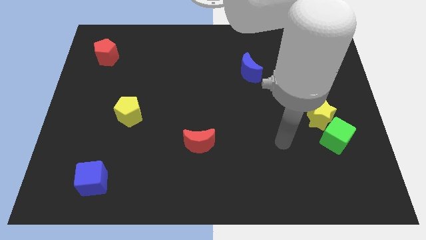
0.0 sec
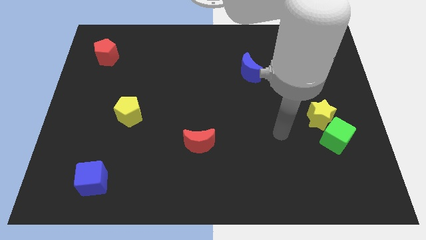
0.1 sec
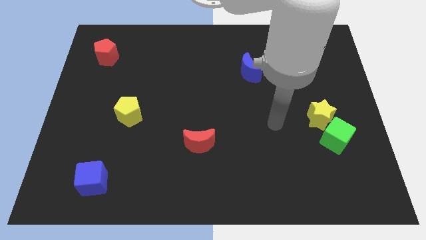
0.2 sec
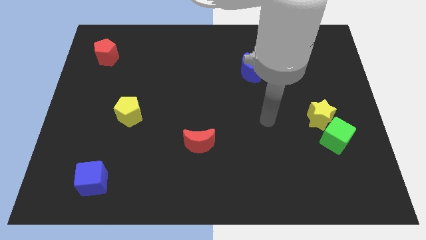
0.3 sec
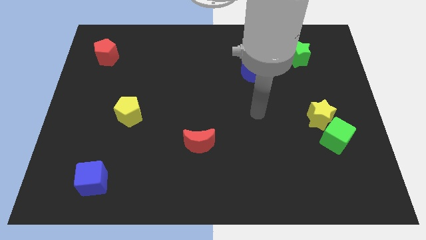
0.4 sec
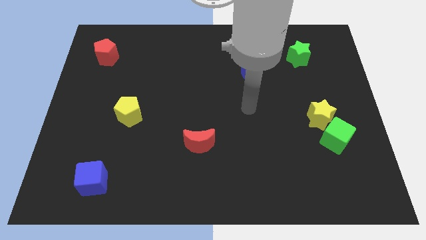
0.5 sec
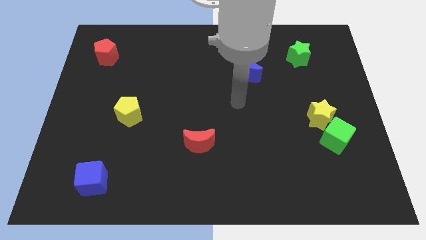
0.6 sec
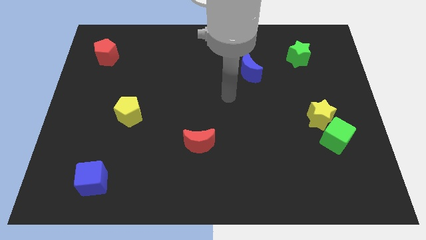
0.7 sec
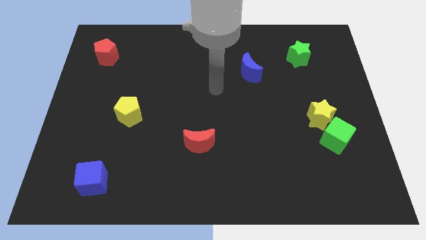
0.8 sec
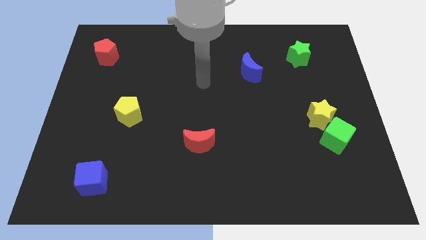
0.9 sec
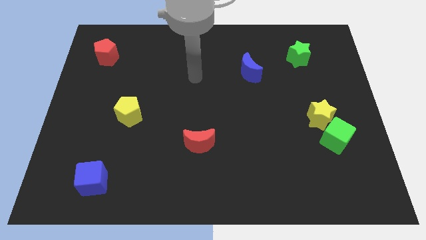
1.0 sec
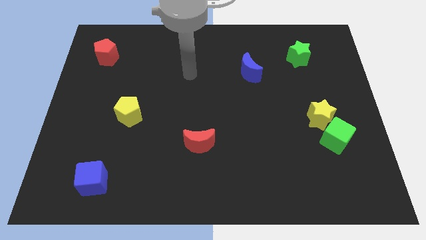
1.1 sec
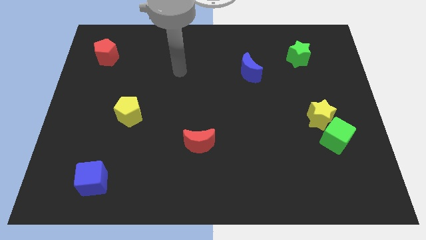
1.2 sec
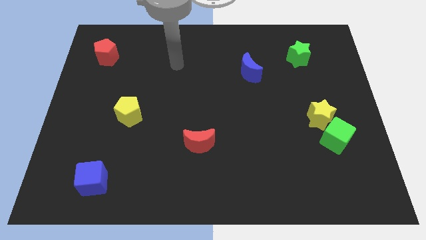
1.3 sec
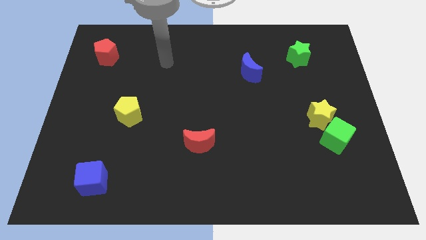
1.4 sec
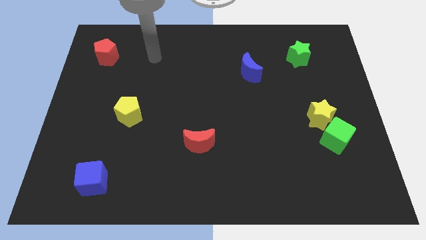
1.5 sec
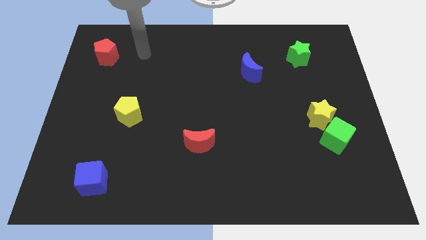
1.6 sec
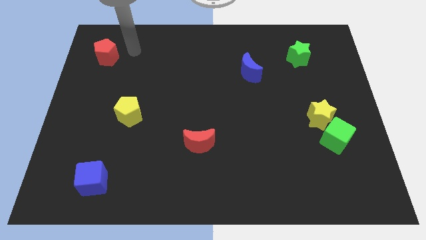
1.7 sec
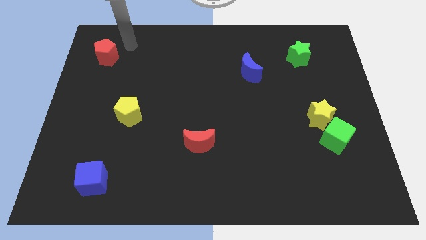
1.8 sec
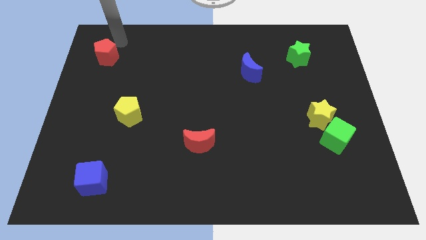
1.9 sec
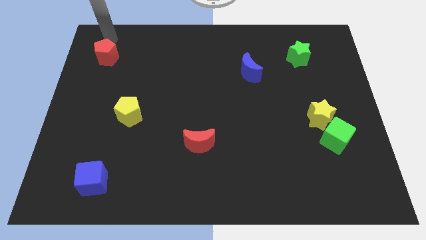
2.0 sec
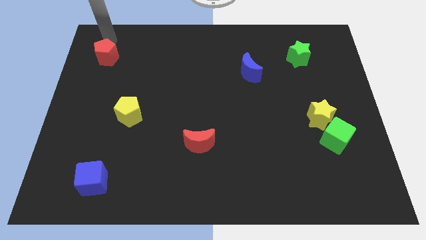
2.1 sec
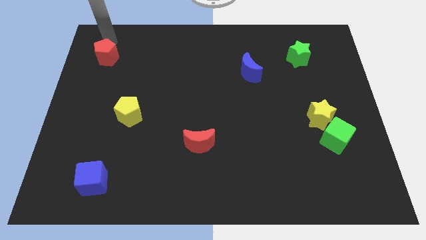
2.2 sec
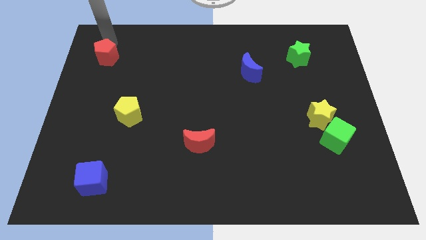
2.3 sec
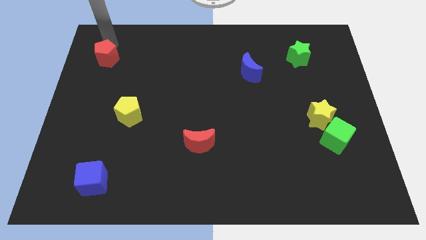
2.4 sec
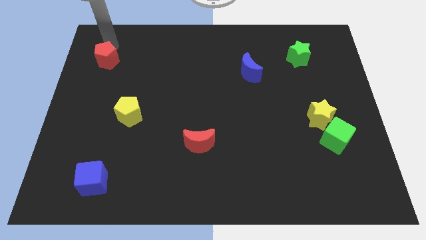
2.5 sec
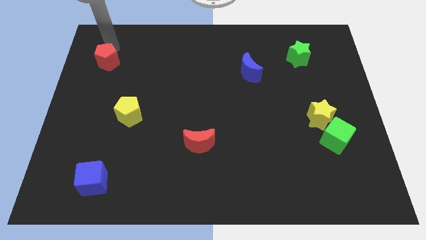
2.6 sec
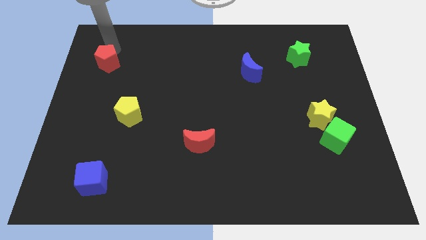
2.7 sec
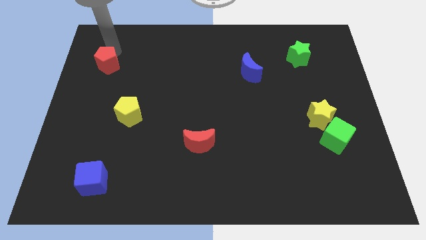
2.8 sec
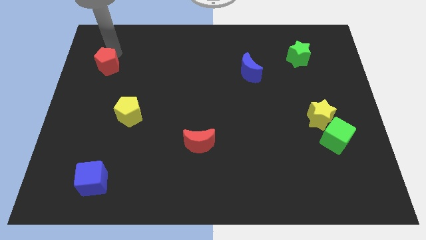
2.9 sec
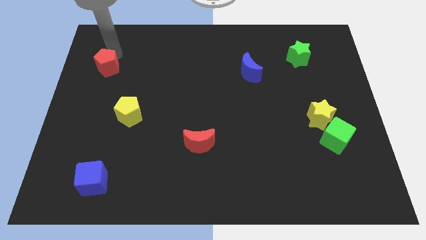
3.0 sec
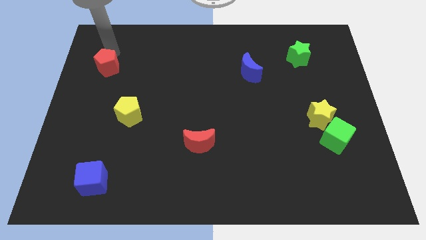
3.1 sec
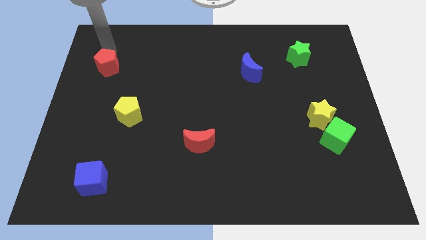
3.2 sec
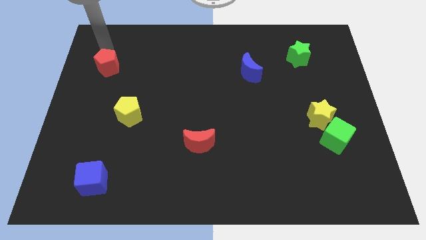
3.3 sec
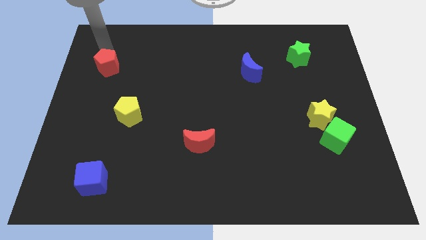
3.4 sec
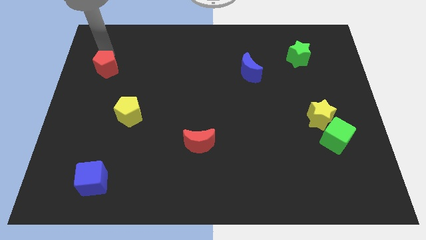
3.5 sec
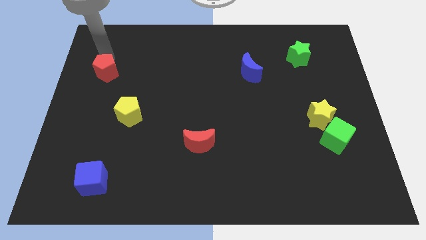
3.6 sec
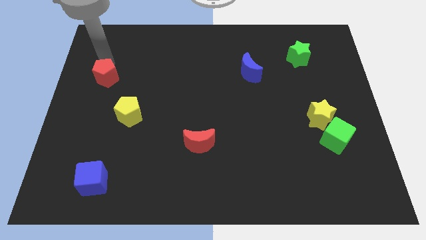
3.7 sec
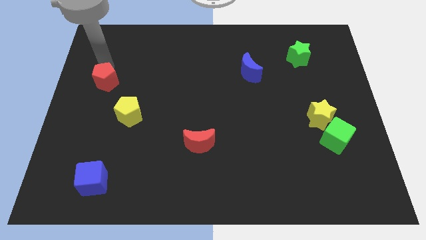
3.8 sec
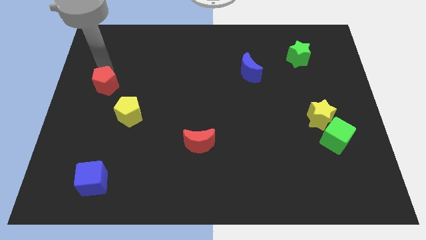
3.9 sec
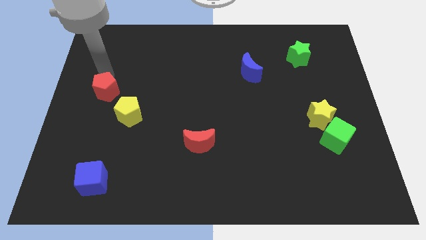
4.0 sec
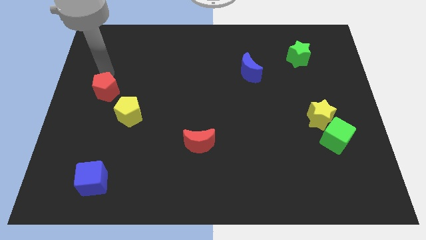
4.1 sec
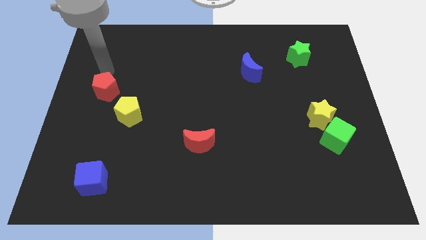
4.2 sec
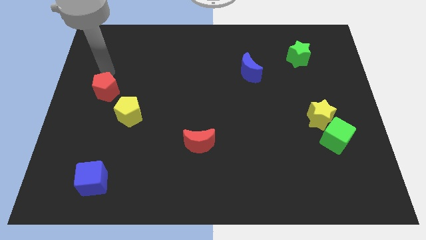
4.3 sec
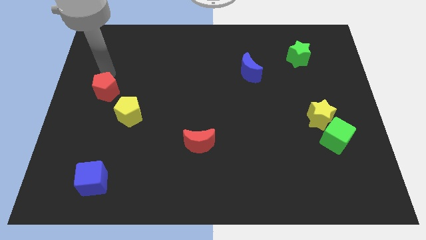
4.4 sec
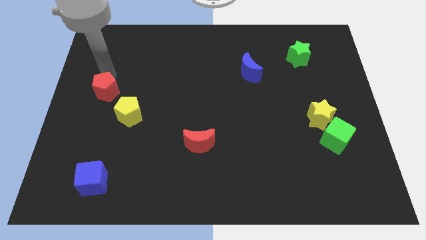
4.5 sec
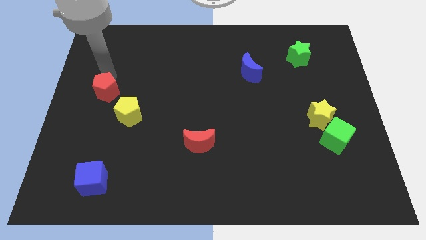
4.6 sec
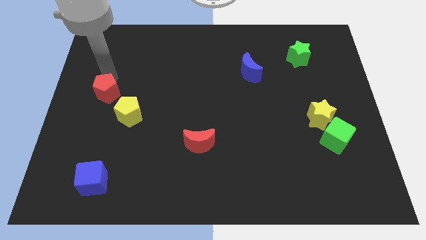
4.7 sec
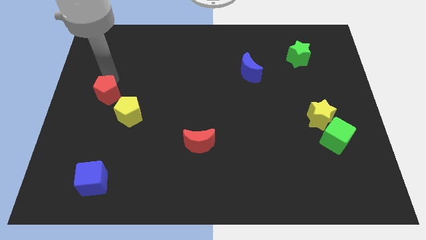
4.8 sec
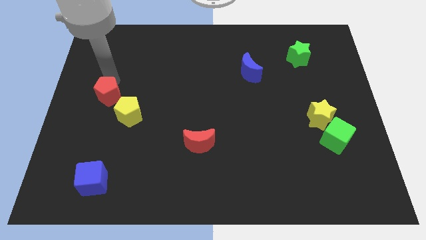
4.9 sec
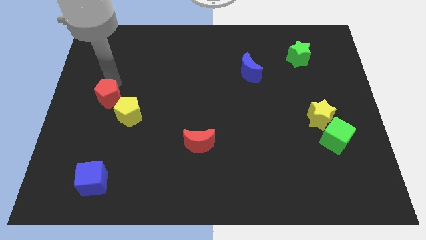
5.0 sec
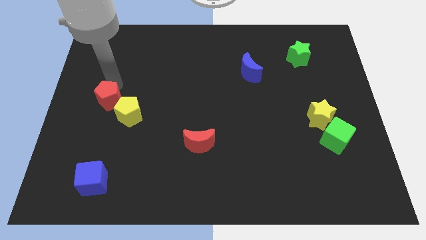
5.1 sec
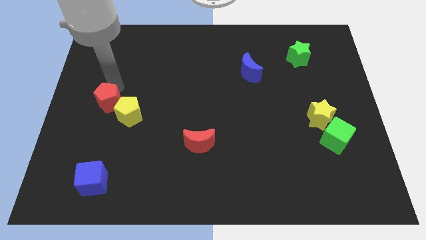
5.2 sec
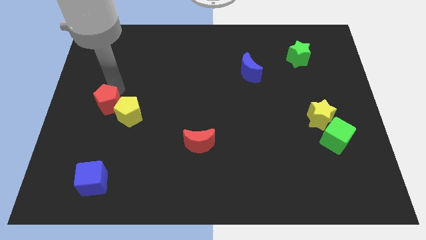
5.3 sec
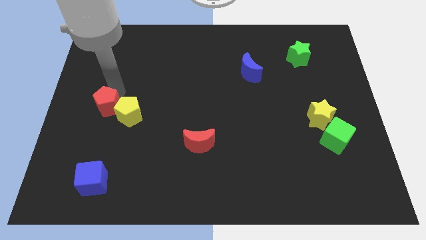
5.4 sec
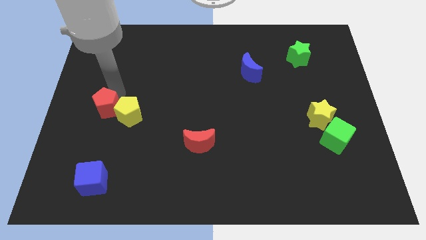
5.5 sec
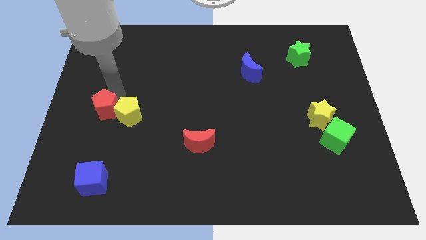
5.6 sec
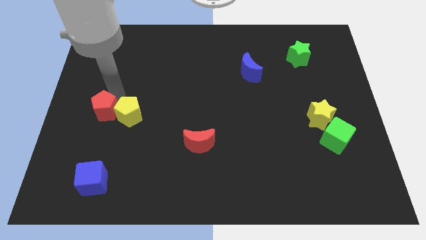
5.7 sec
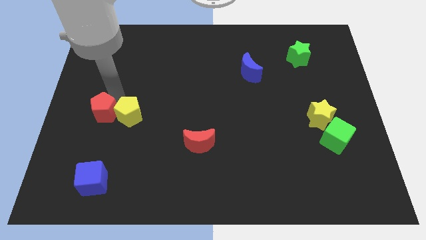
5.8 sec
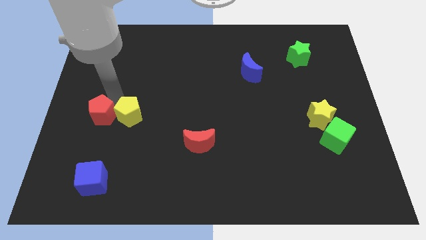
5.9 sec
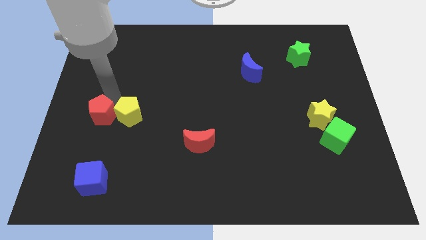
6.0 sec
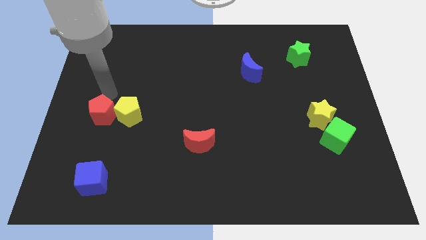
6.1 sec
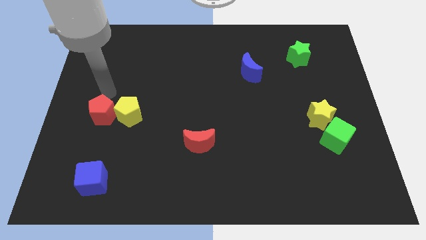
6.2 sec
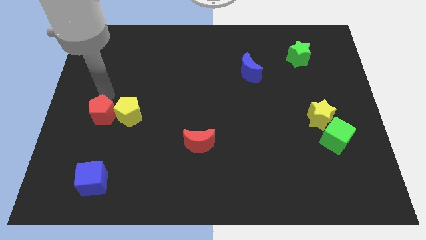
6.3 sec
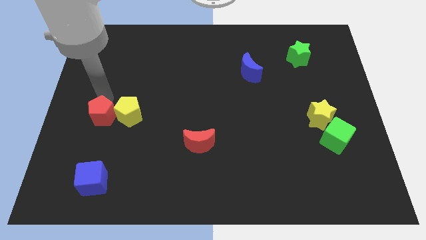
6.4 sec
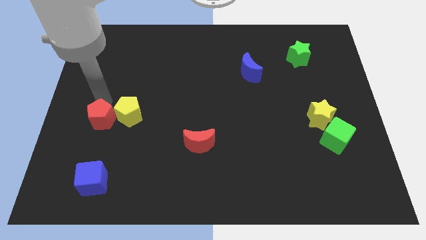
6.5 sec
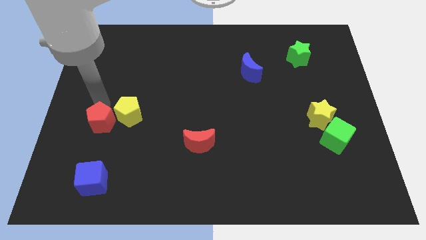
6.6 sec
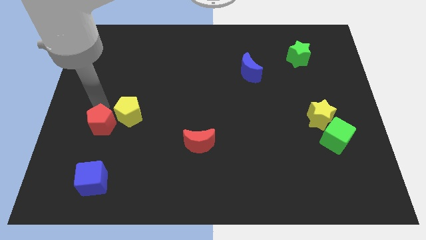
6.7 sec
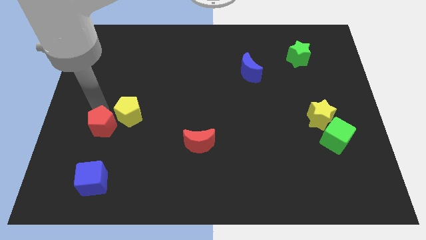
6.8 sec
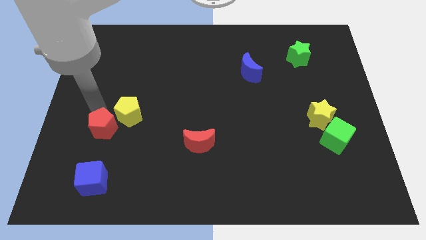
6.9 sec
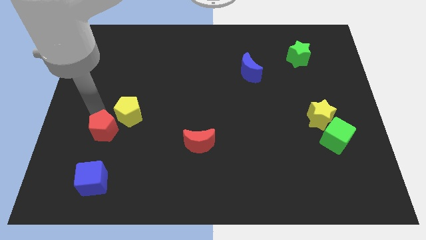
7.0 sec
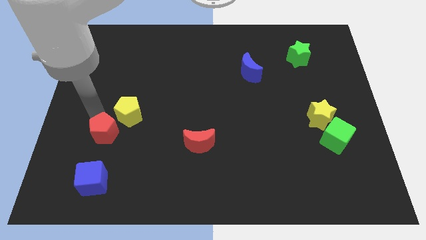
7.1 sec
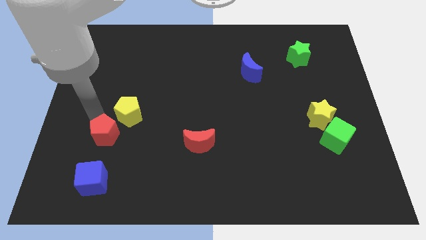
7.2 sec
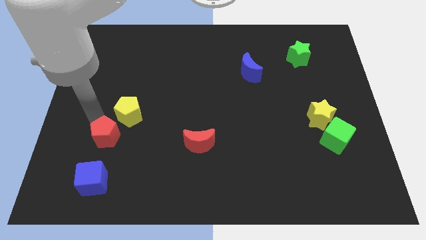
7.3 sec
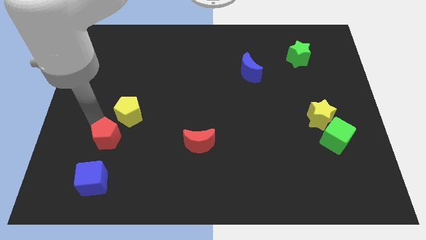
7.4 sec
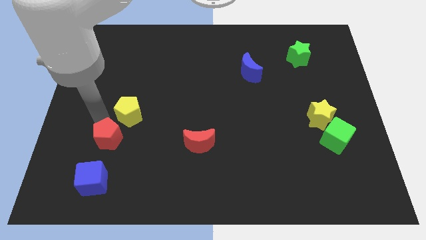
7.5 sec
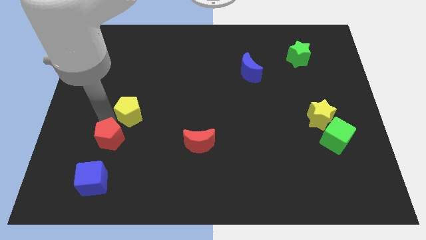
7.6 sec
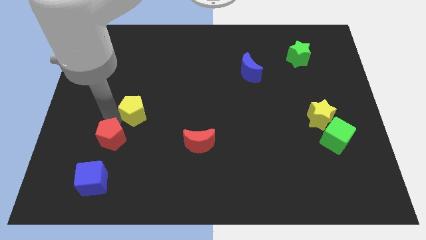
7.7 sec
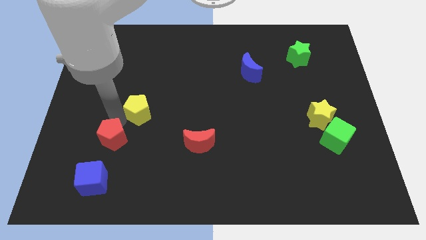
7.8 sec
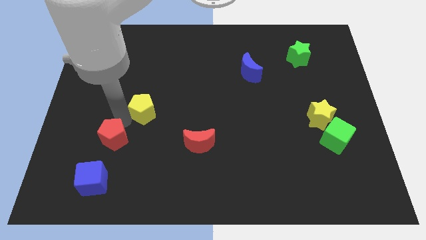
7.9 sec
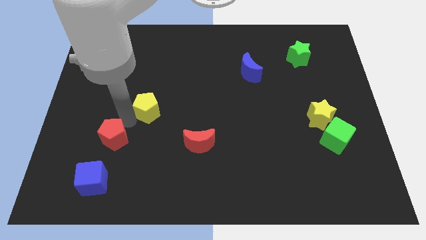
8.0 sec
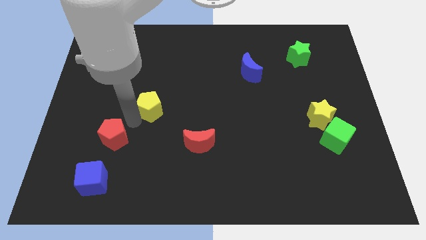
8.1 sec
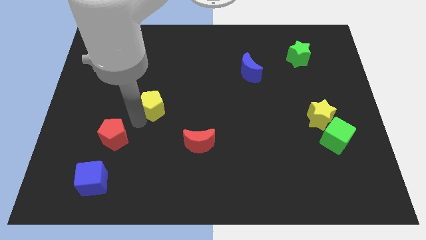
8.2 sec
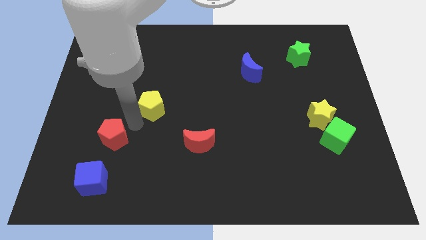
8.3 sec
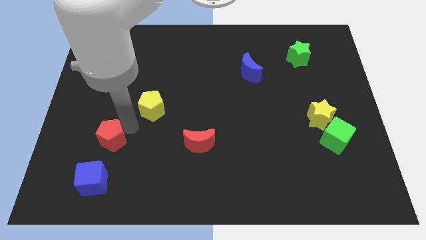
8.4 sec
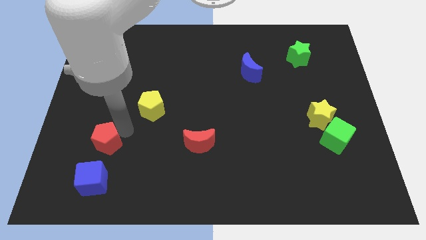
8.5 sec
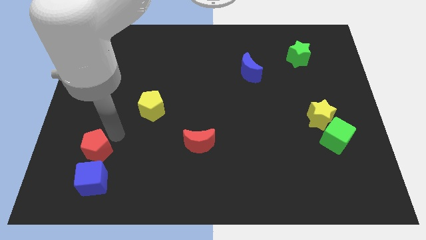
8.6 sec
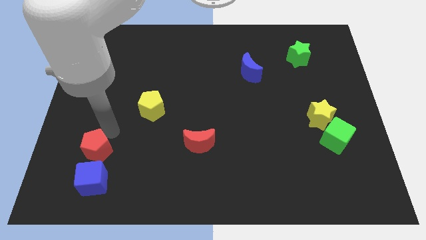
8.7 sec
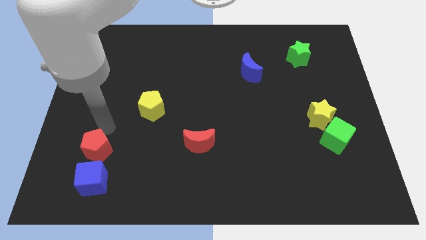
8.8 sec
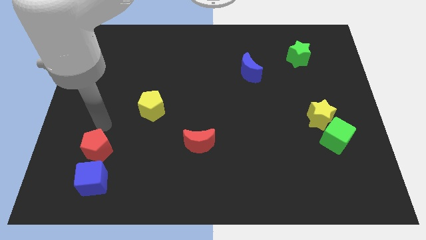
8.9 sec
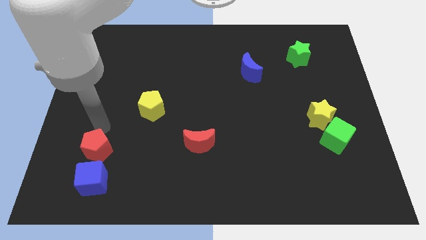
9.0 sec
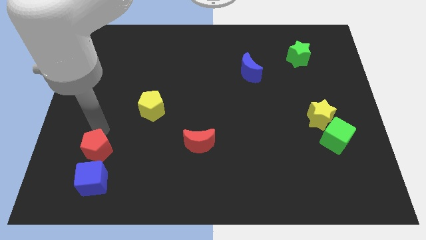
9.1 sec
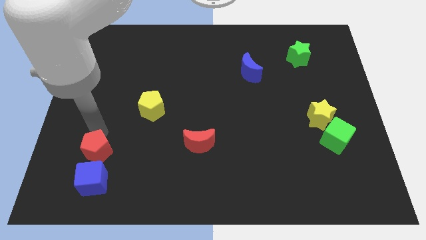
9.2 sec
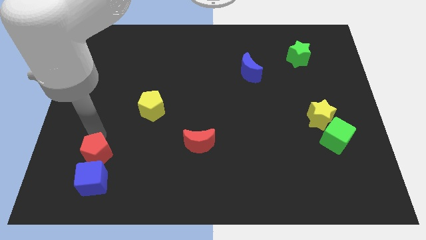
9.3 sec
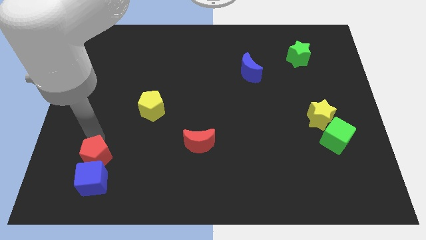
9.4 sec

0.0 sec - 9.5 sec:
put the red pentagon close to the blue cube
